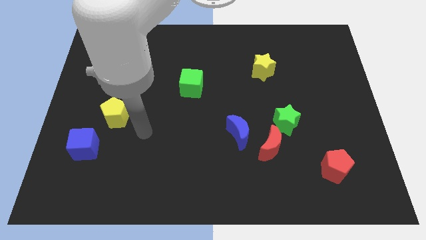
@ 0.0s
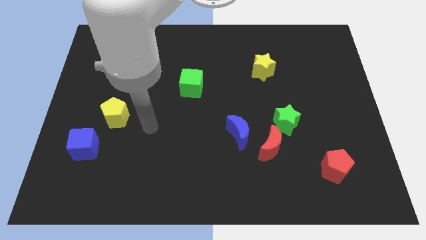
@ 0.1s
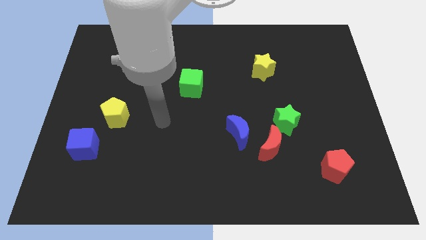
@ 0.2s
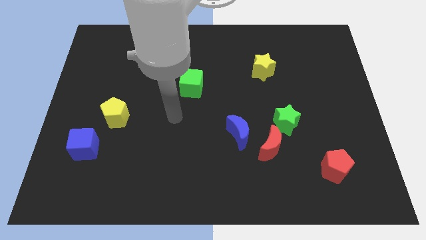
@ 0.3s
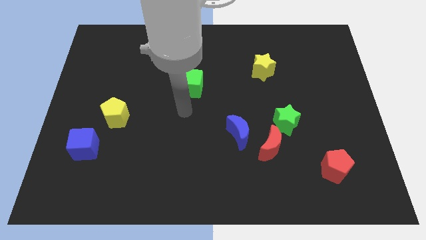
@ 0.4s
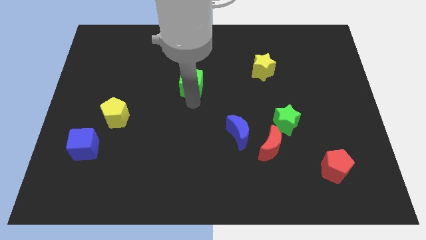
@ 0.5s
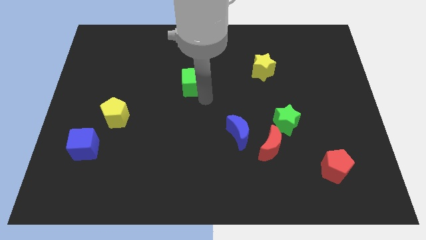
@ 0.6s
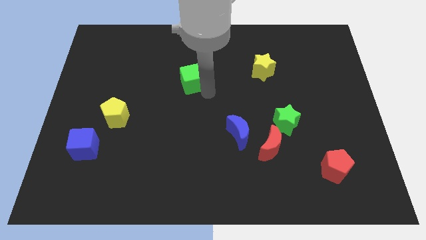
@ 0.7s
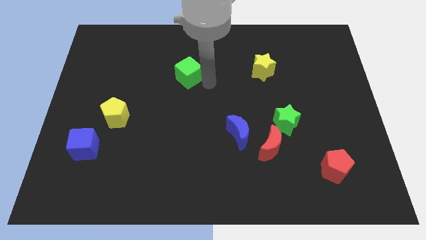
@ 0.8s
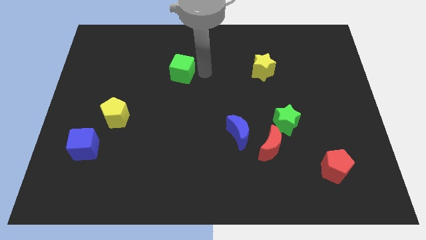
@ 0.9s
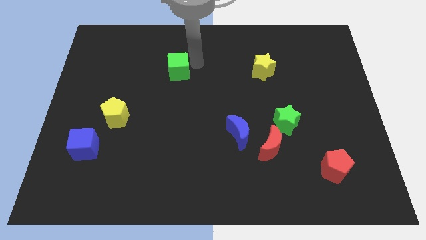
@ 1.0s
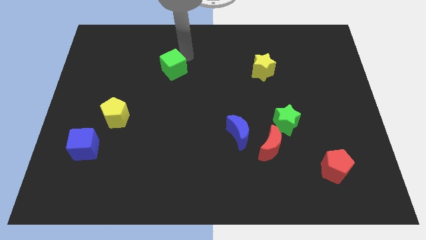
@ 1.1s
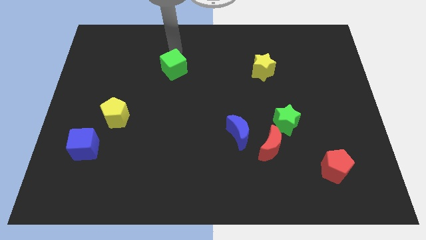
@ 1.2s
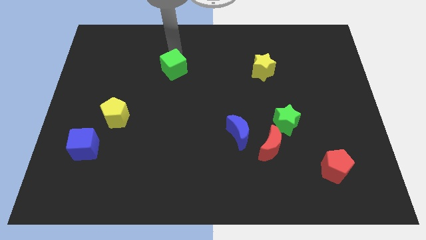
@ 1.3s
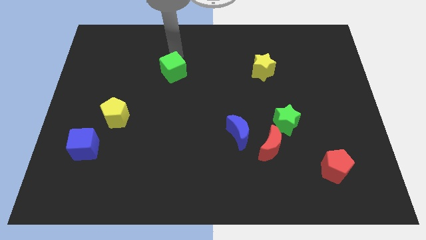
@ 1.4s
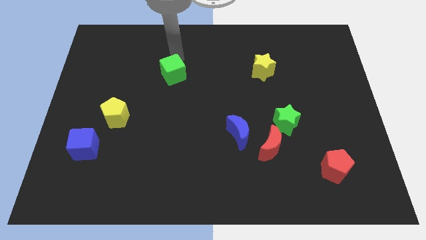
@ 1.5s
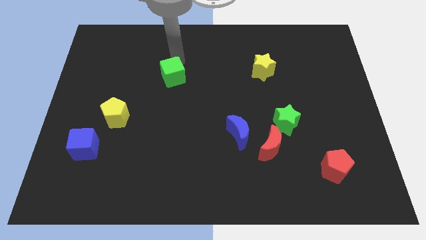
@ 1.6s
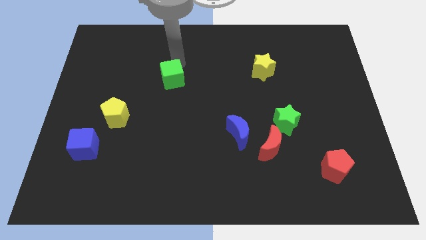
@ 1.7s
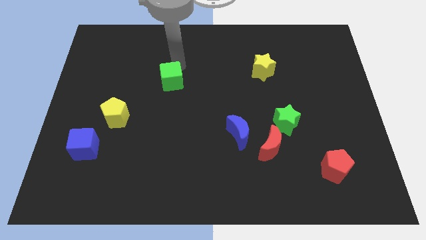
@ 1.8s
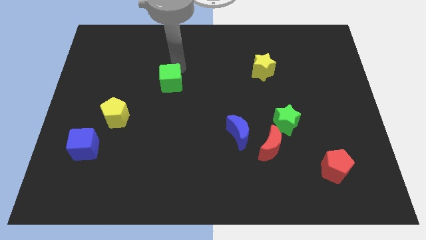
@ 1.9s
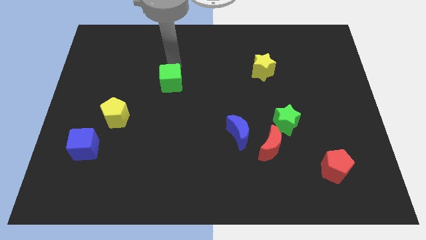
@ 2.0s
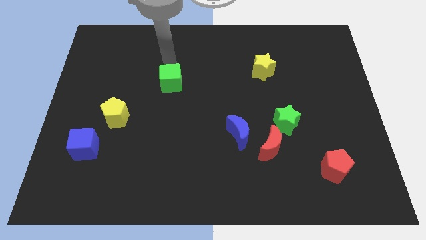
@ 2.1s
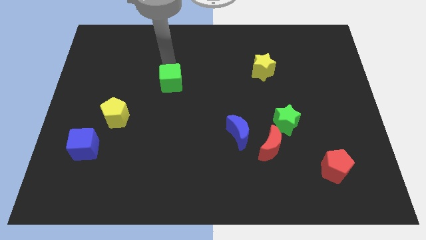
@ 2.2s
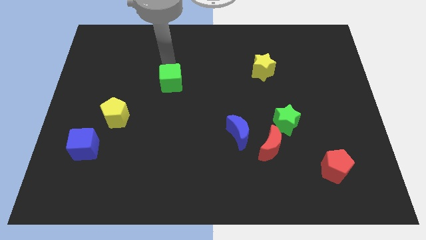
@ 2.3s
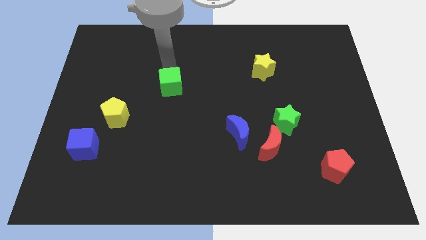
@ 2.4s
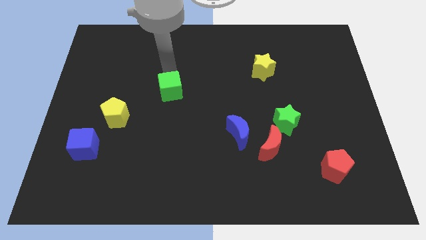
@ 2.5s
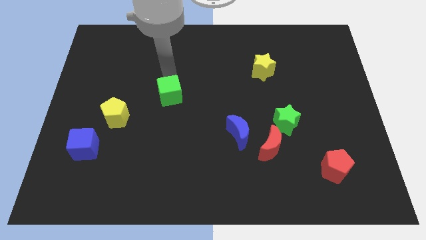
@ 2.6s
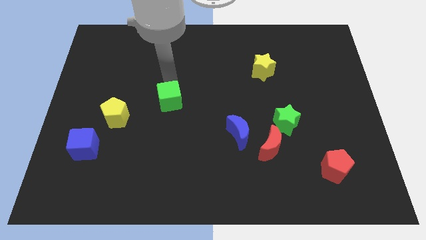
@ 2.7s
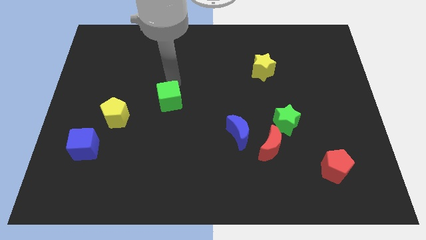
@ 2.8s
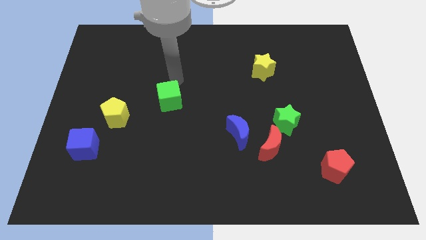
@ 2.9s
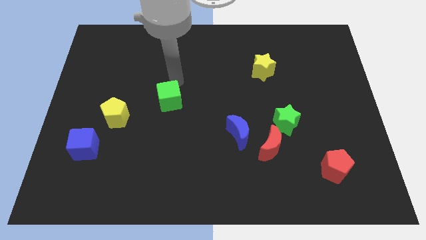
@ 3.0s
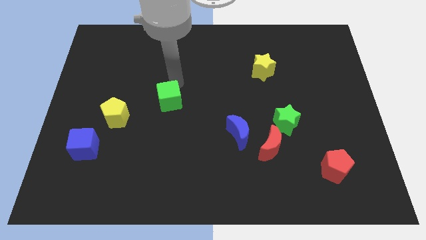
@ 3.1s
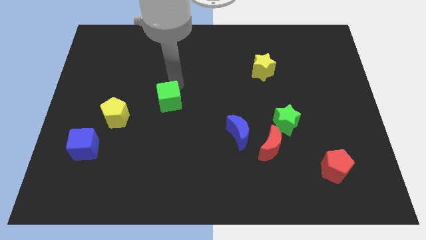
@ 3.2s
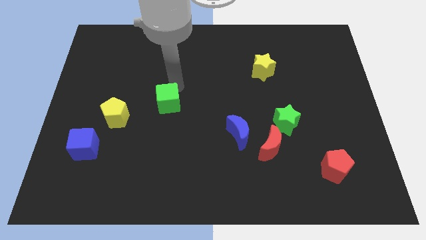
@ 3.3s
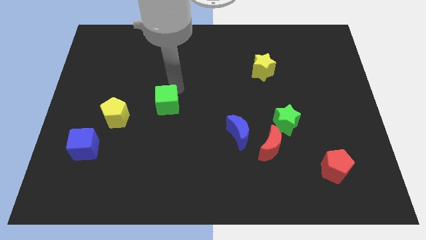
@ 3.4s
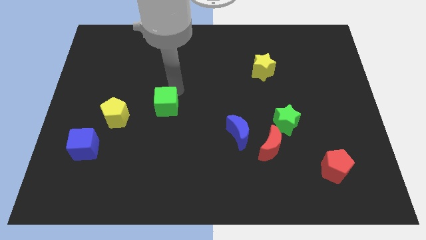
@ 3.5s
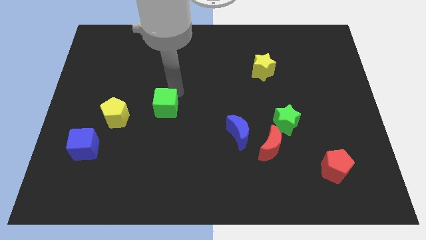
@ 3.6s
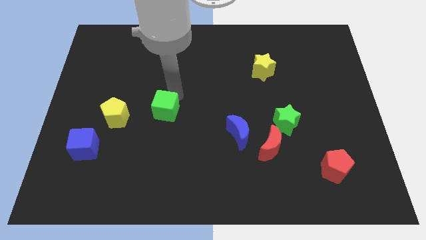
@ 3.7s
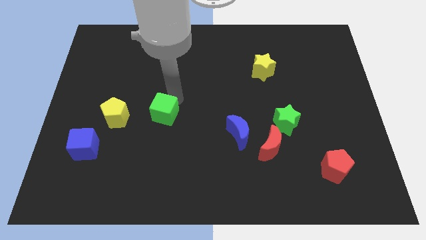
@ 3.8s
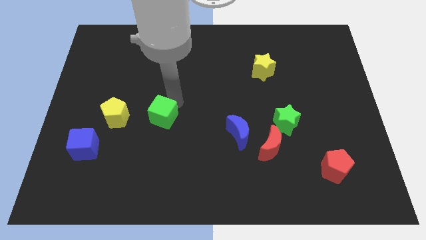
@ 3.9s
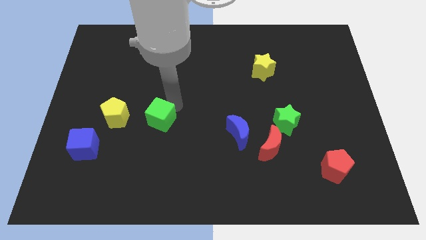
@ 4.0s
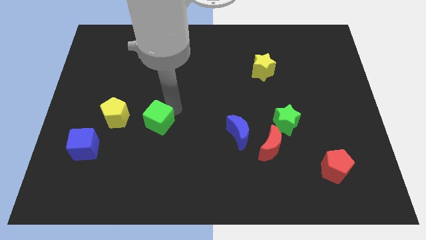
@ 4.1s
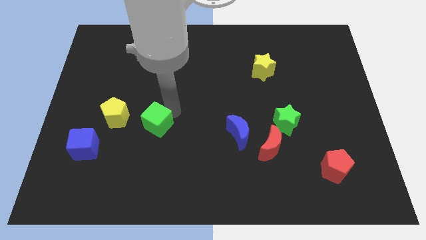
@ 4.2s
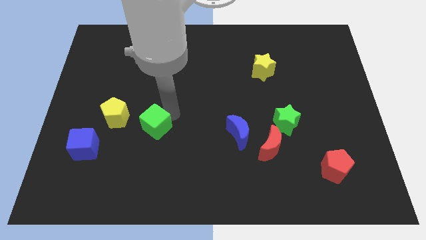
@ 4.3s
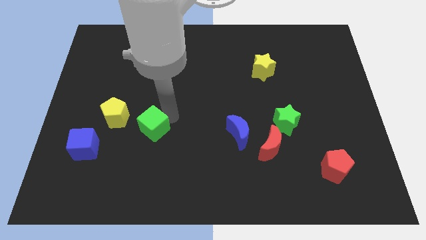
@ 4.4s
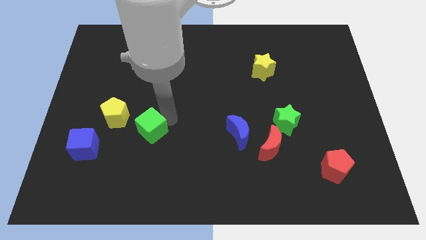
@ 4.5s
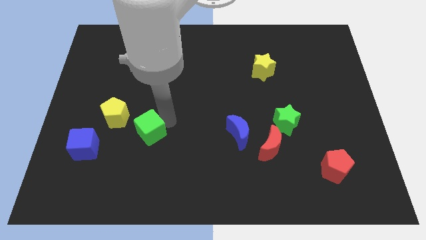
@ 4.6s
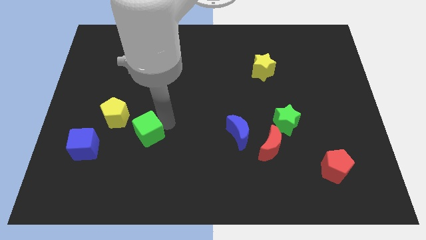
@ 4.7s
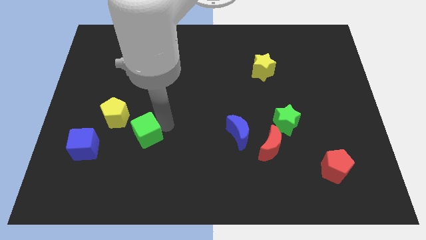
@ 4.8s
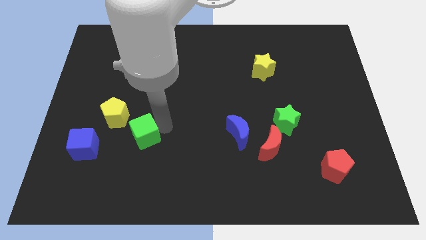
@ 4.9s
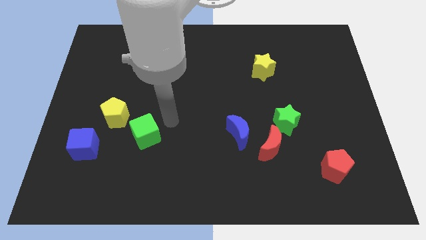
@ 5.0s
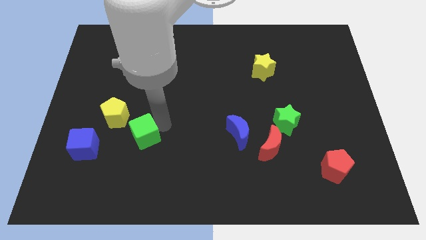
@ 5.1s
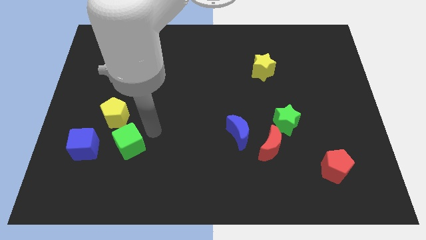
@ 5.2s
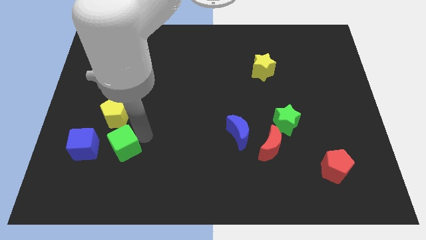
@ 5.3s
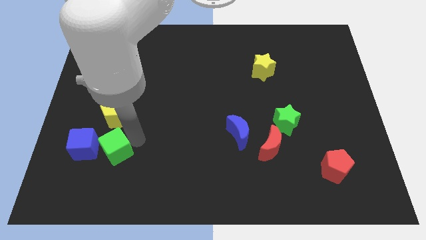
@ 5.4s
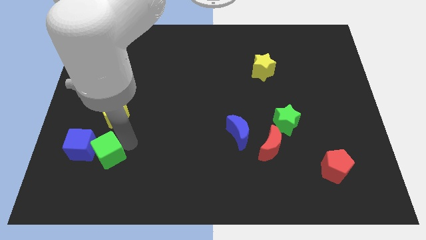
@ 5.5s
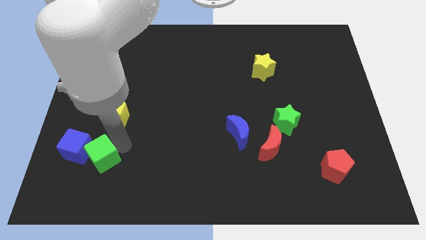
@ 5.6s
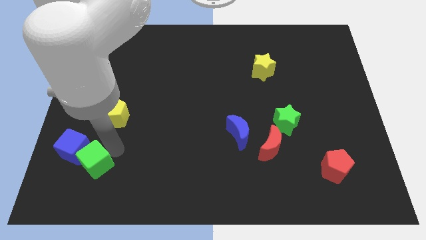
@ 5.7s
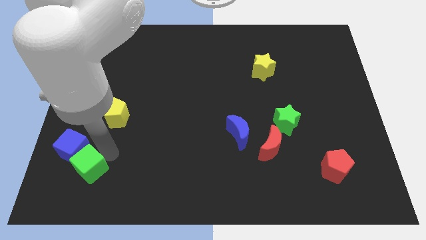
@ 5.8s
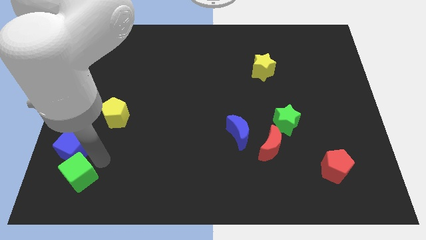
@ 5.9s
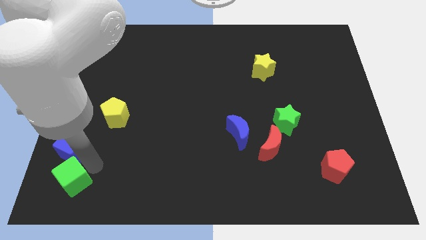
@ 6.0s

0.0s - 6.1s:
slide the green cube to the bottom left

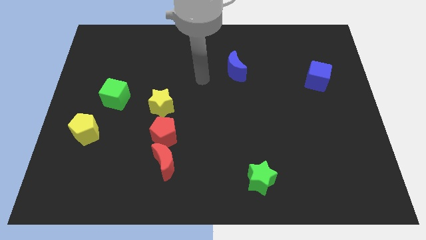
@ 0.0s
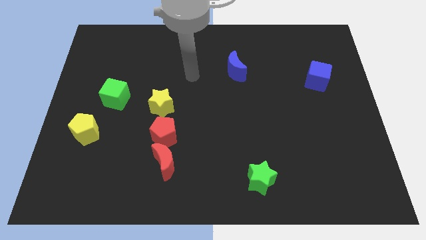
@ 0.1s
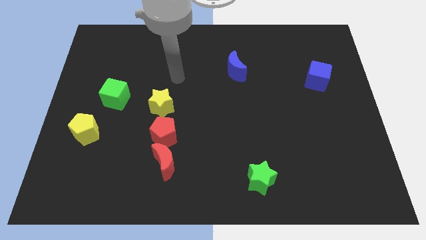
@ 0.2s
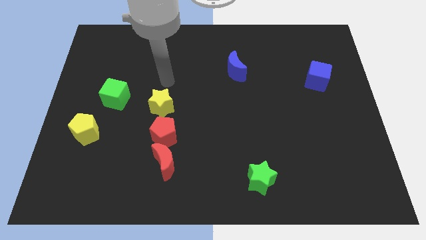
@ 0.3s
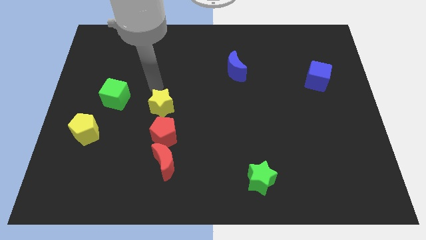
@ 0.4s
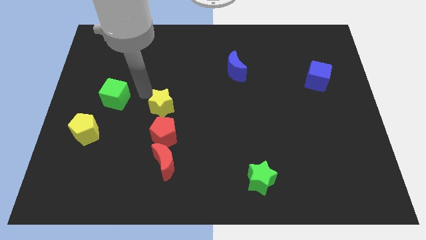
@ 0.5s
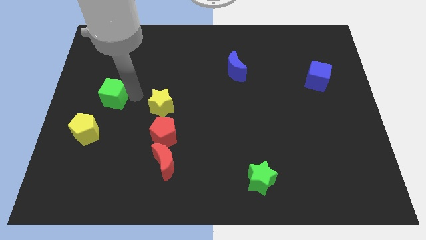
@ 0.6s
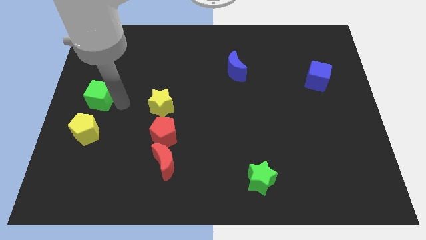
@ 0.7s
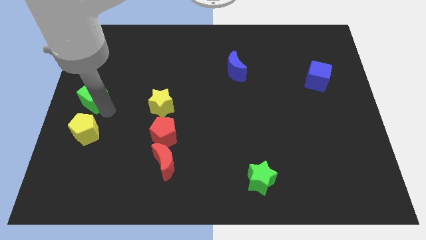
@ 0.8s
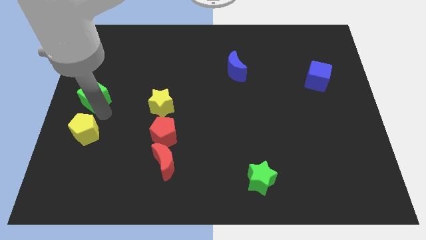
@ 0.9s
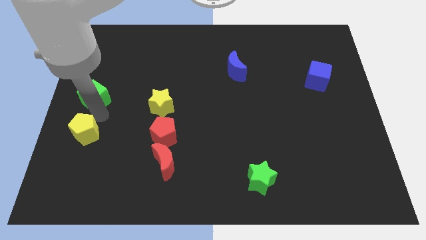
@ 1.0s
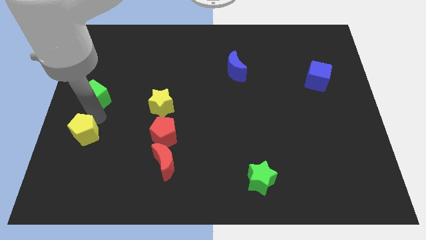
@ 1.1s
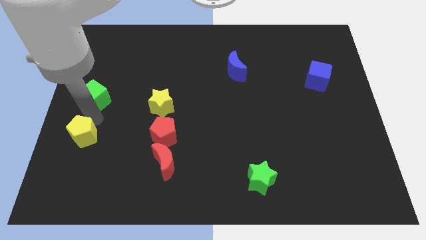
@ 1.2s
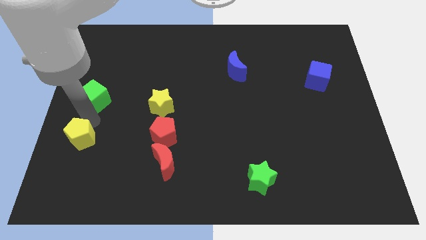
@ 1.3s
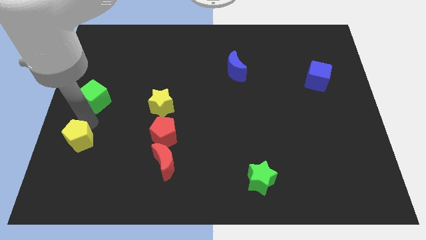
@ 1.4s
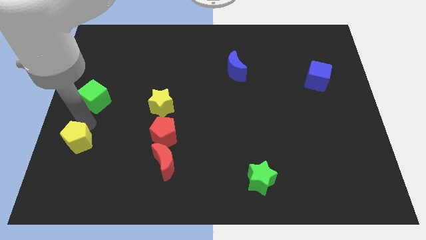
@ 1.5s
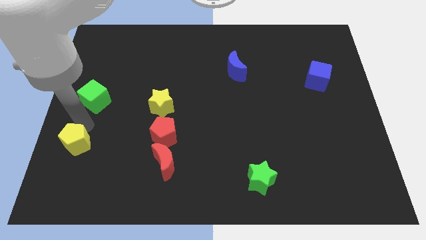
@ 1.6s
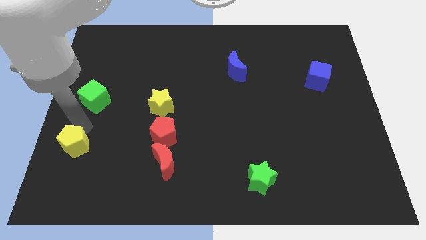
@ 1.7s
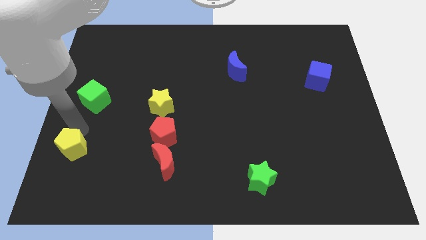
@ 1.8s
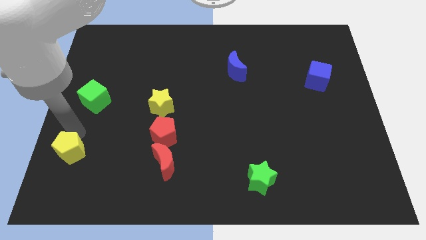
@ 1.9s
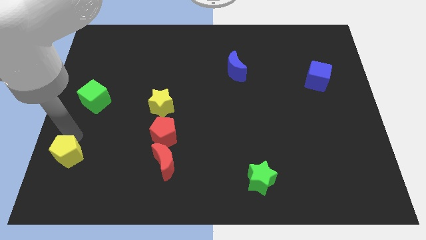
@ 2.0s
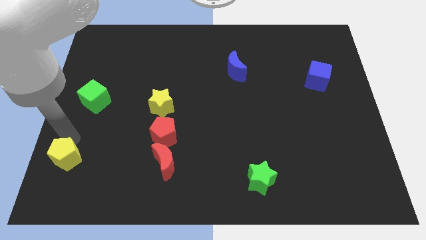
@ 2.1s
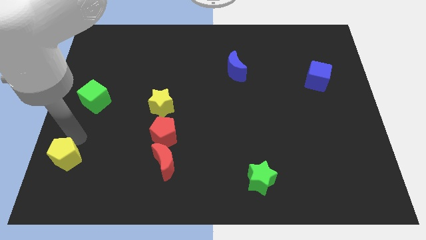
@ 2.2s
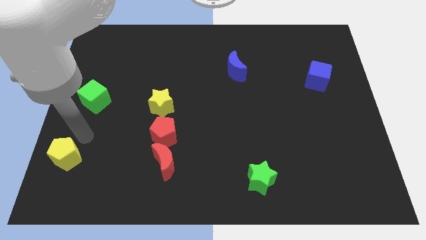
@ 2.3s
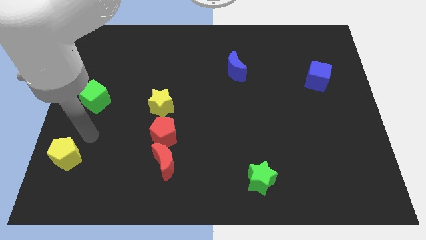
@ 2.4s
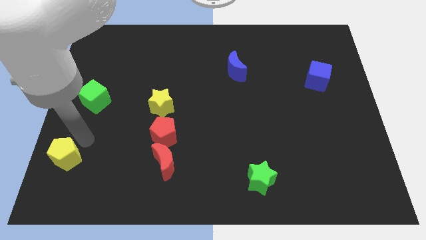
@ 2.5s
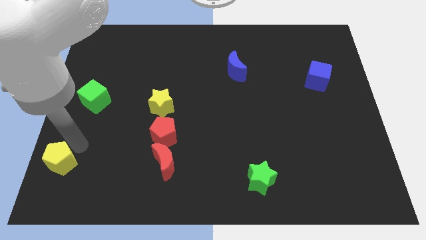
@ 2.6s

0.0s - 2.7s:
move the yellow pentagon to the bottom left
